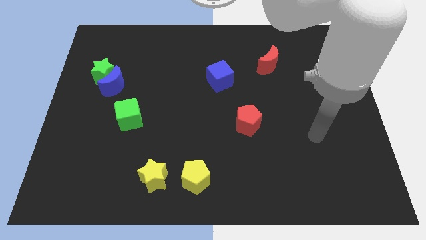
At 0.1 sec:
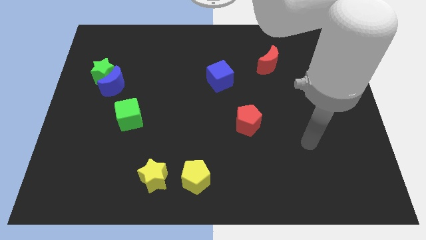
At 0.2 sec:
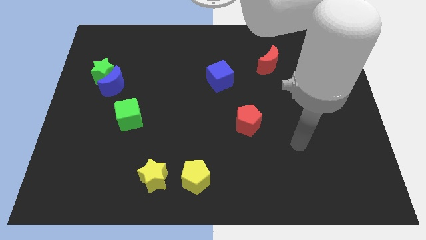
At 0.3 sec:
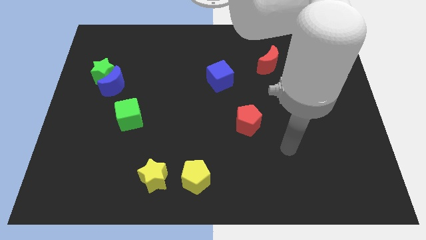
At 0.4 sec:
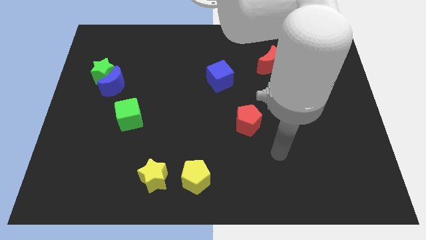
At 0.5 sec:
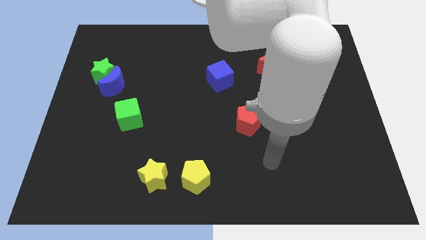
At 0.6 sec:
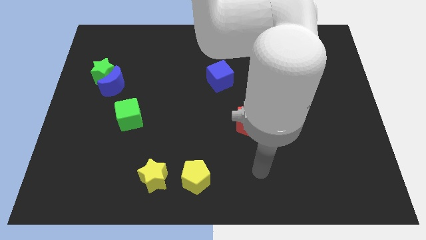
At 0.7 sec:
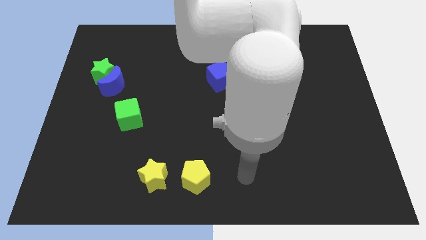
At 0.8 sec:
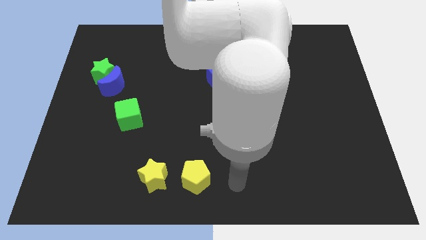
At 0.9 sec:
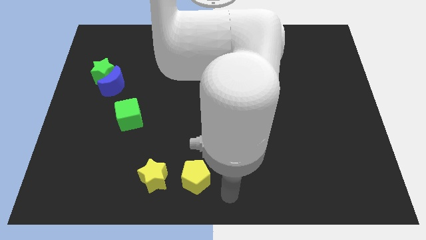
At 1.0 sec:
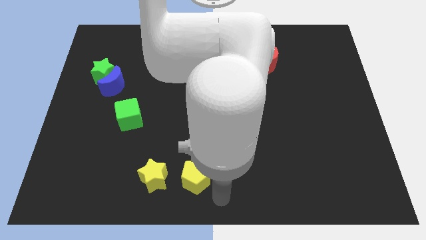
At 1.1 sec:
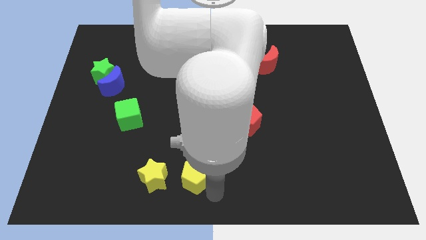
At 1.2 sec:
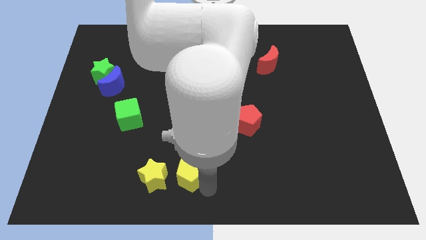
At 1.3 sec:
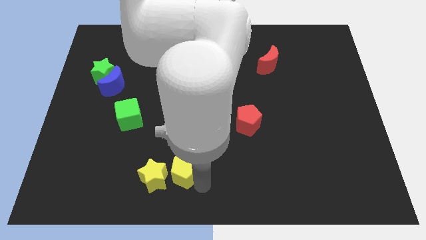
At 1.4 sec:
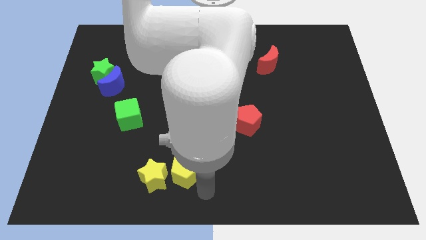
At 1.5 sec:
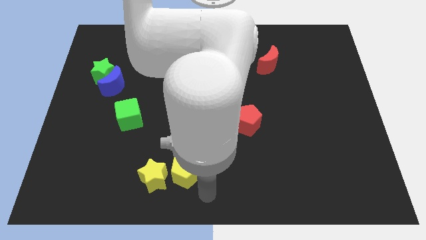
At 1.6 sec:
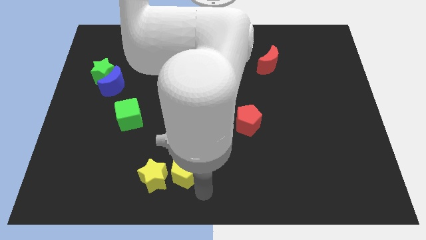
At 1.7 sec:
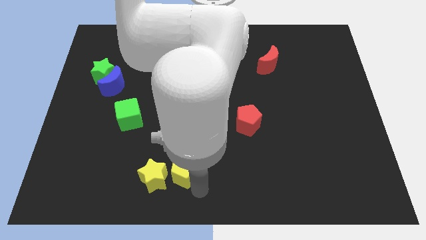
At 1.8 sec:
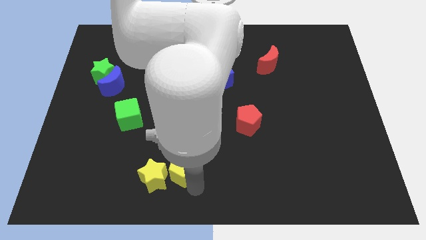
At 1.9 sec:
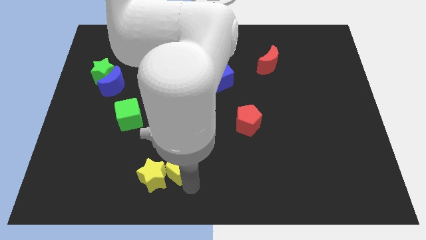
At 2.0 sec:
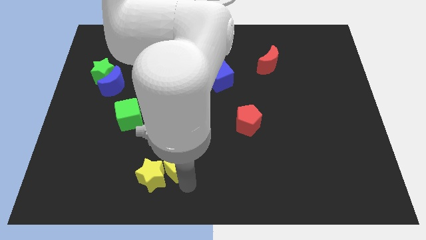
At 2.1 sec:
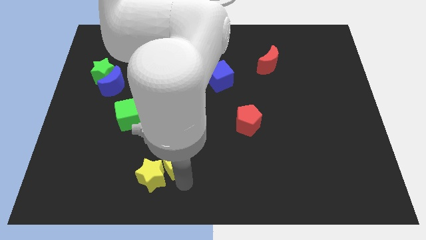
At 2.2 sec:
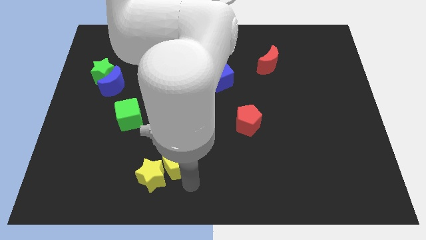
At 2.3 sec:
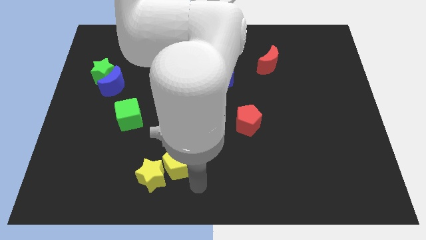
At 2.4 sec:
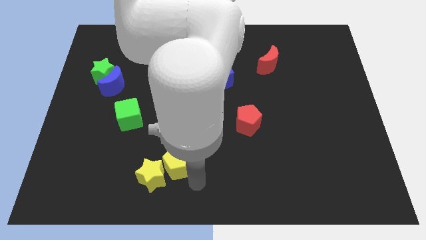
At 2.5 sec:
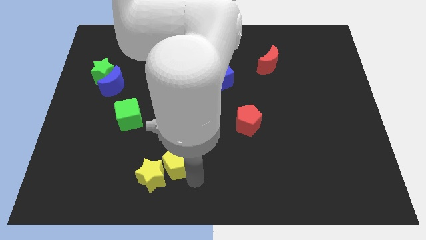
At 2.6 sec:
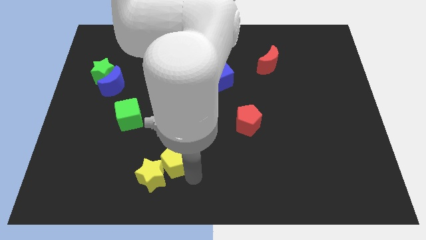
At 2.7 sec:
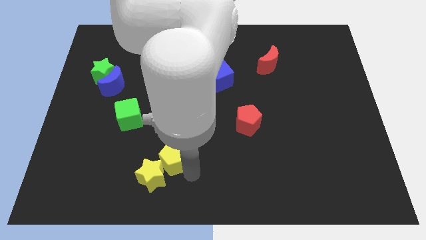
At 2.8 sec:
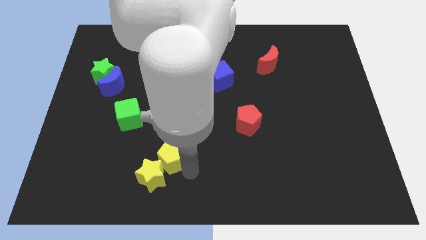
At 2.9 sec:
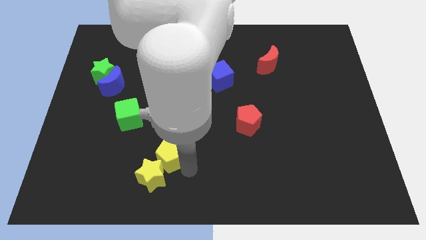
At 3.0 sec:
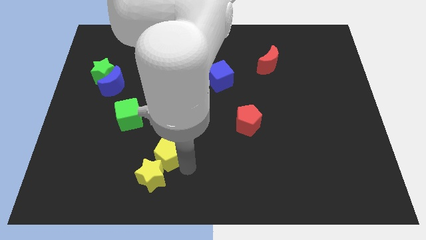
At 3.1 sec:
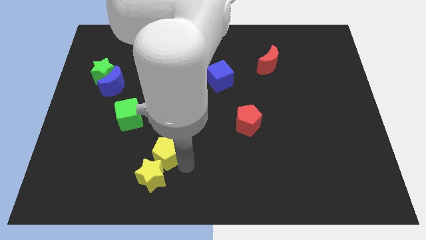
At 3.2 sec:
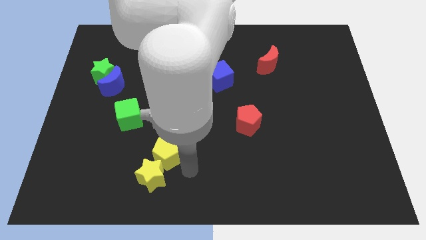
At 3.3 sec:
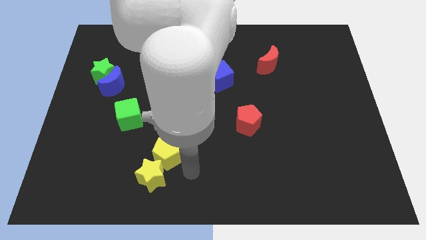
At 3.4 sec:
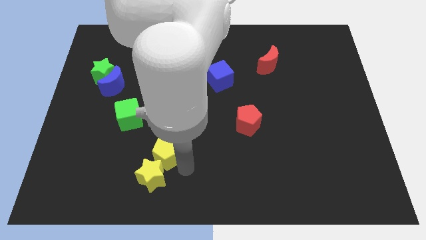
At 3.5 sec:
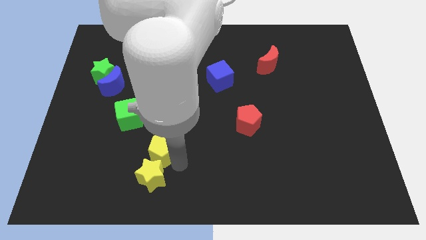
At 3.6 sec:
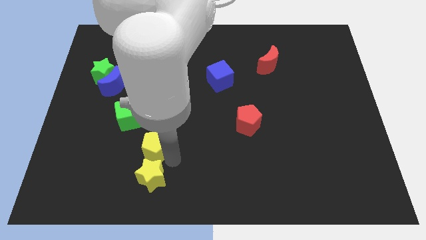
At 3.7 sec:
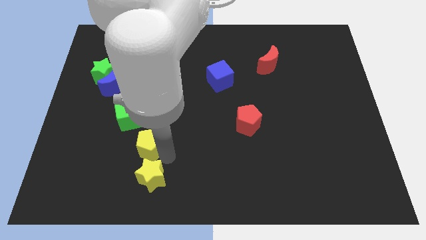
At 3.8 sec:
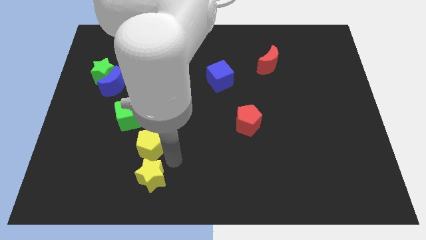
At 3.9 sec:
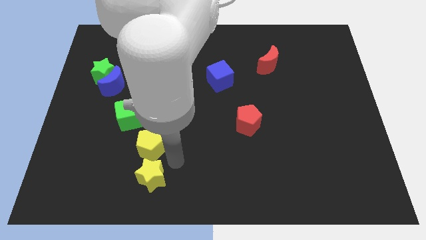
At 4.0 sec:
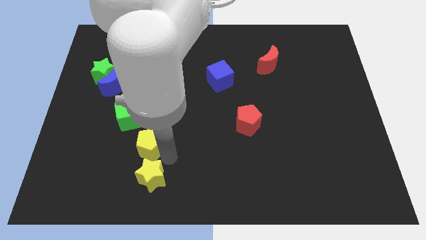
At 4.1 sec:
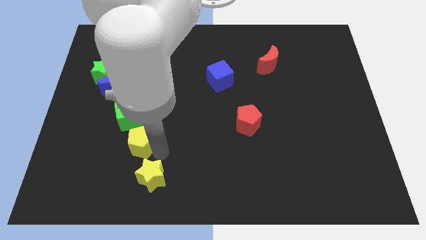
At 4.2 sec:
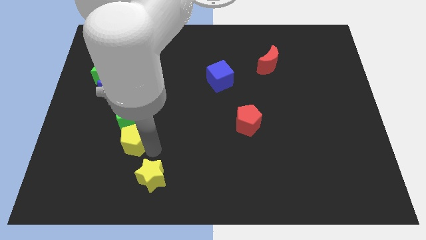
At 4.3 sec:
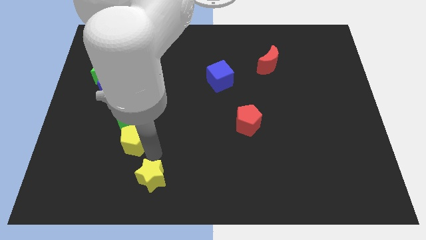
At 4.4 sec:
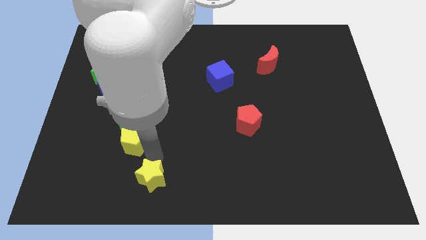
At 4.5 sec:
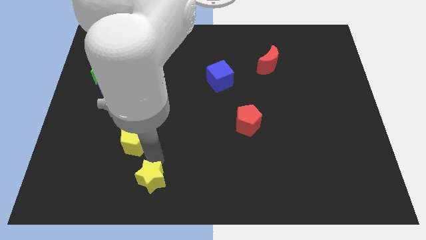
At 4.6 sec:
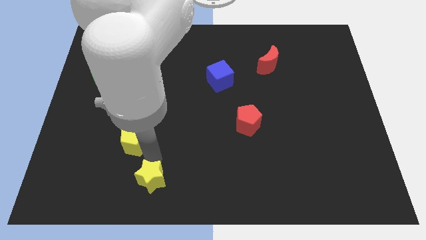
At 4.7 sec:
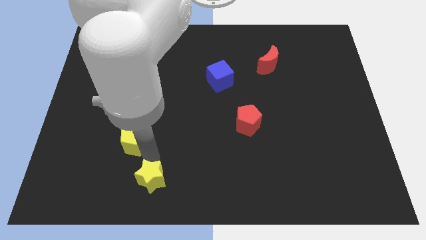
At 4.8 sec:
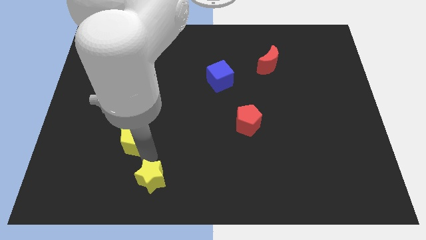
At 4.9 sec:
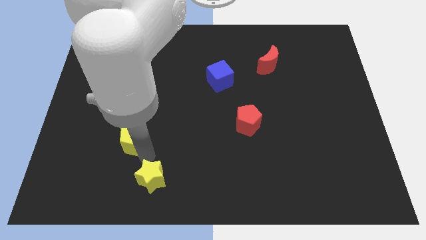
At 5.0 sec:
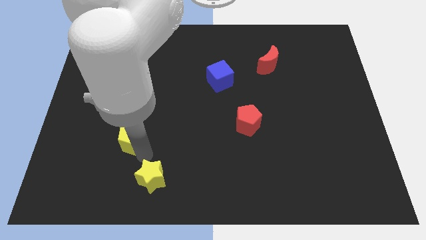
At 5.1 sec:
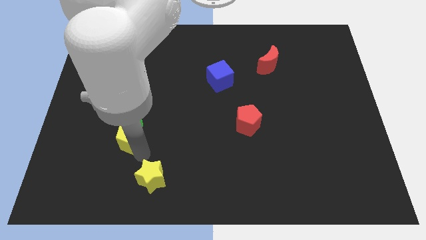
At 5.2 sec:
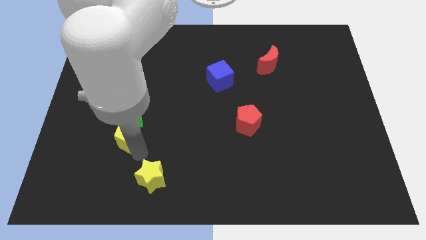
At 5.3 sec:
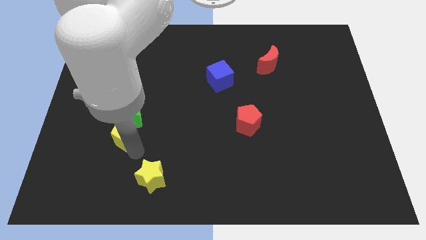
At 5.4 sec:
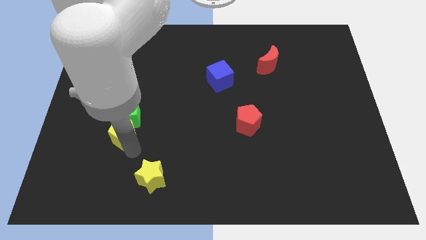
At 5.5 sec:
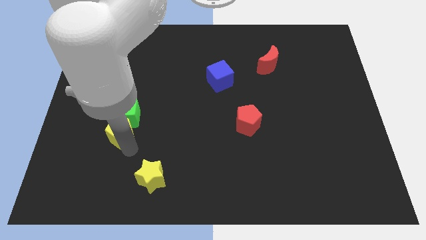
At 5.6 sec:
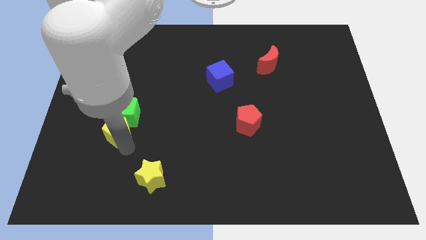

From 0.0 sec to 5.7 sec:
put the yellow pentagon to the bottom of the blue moon
